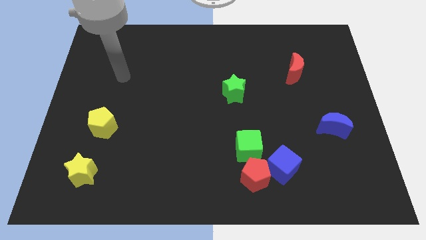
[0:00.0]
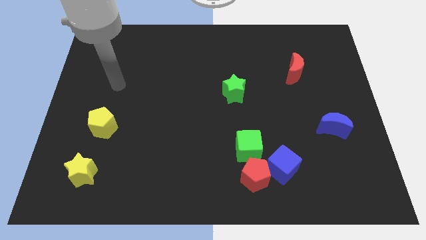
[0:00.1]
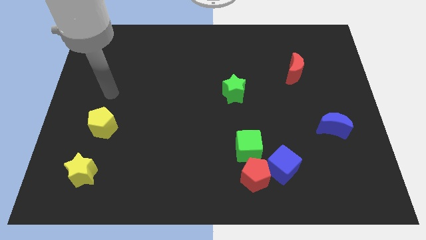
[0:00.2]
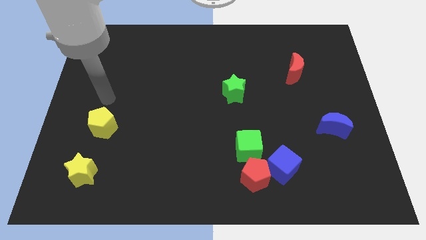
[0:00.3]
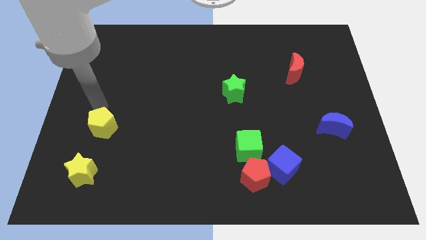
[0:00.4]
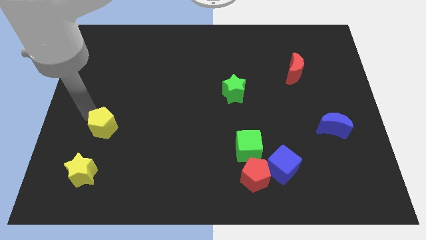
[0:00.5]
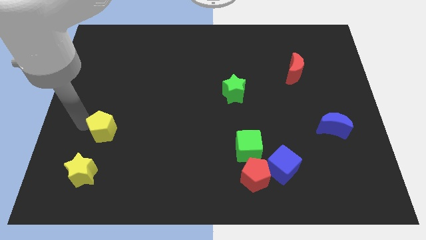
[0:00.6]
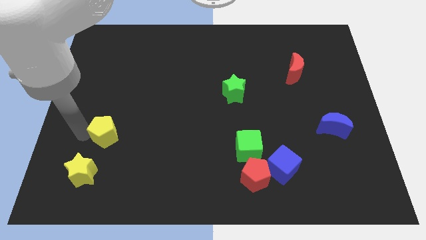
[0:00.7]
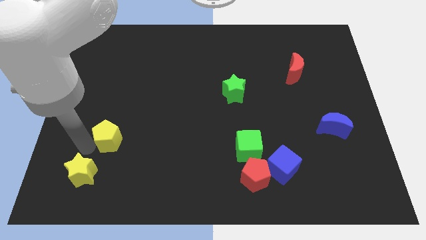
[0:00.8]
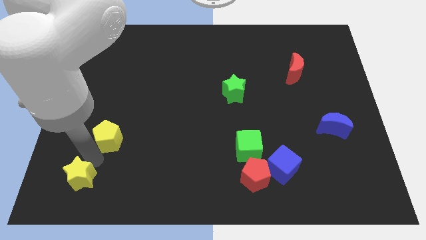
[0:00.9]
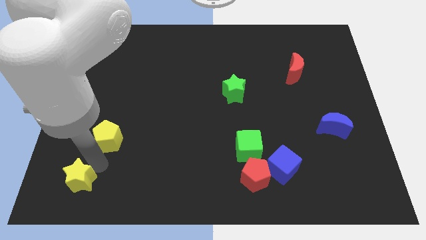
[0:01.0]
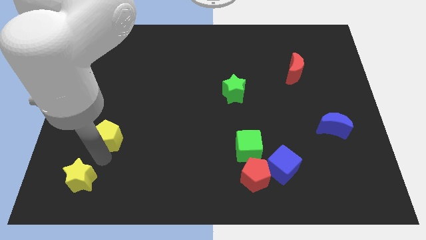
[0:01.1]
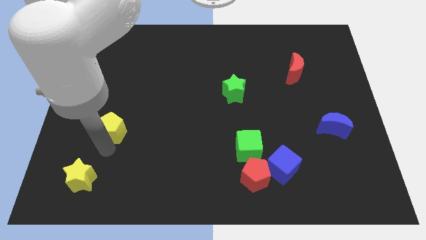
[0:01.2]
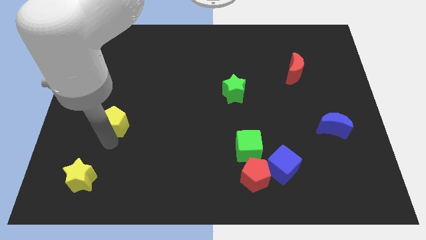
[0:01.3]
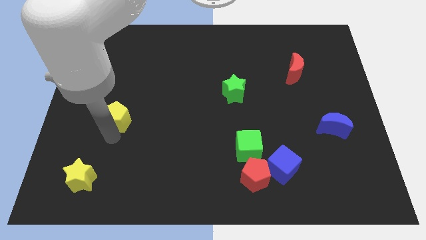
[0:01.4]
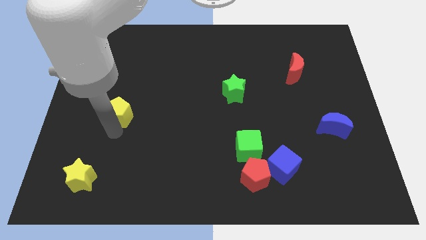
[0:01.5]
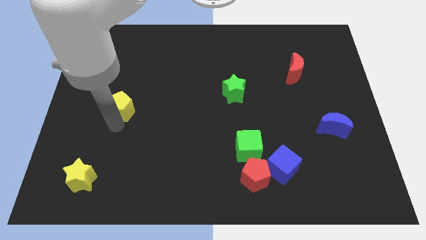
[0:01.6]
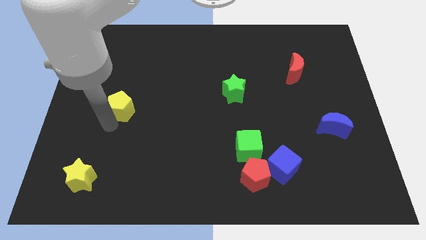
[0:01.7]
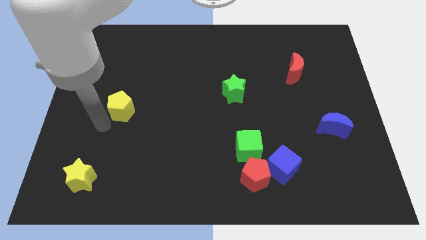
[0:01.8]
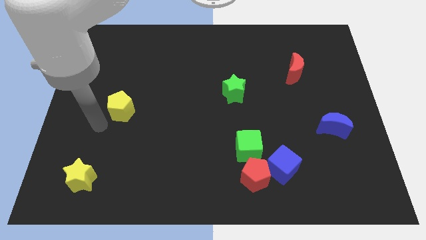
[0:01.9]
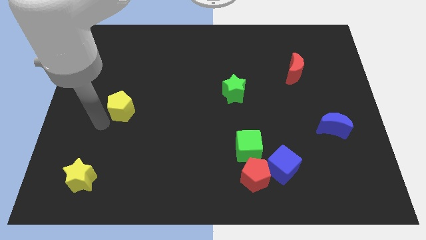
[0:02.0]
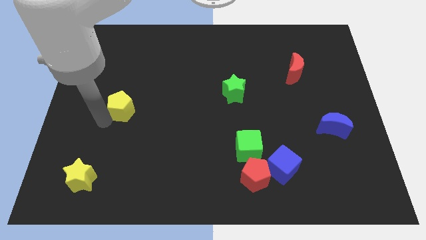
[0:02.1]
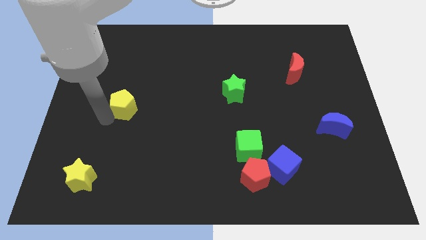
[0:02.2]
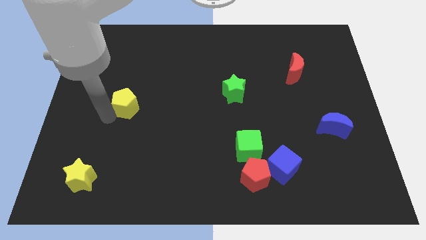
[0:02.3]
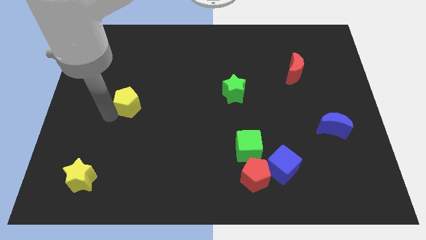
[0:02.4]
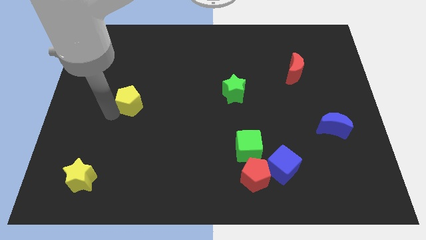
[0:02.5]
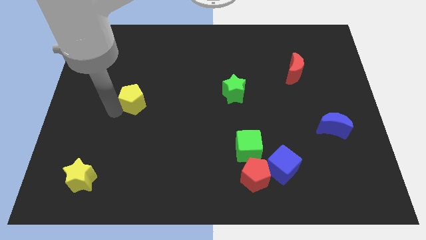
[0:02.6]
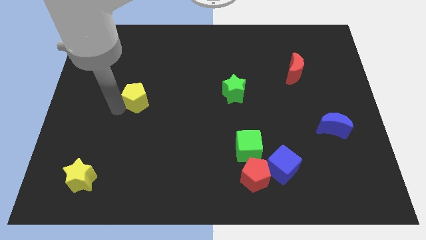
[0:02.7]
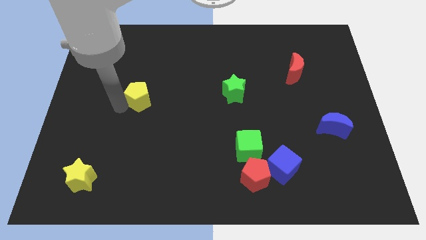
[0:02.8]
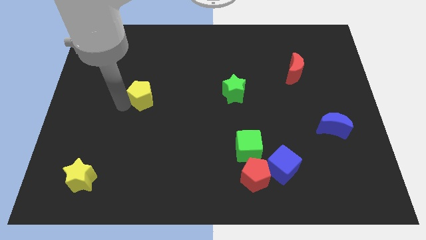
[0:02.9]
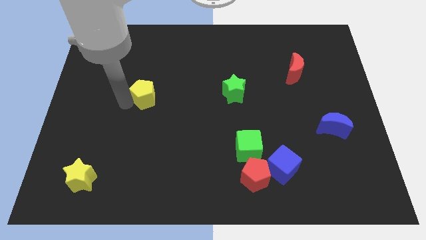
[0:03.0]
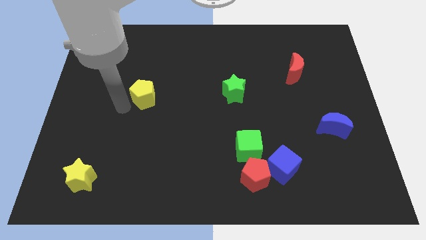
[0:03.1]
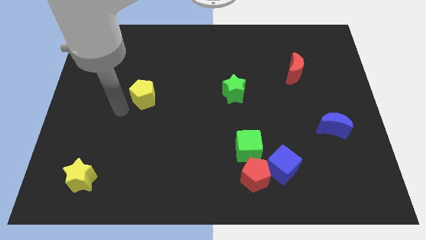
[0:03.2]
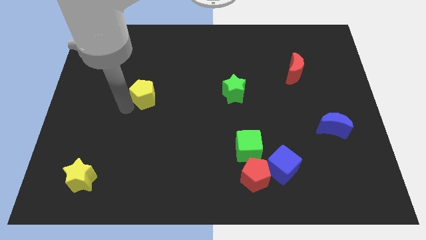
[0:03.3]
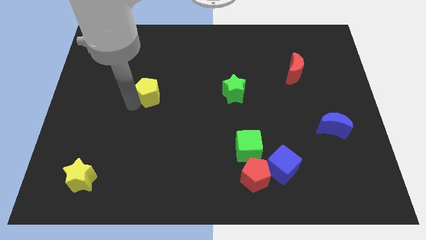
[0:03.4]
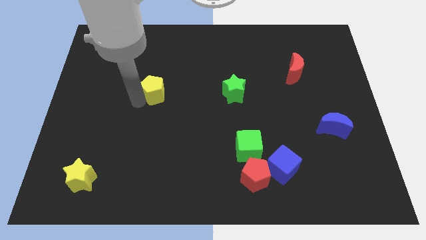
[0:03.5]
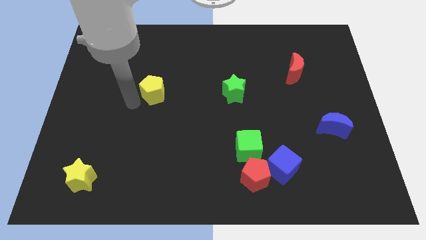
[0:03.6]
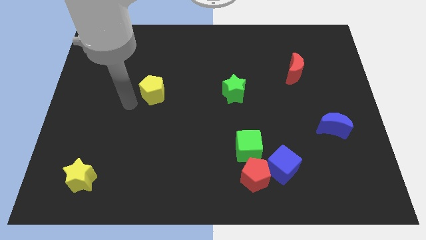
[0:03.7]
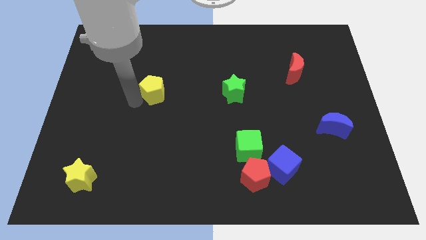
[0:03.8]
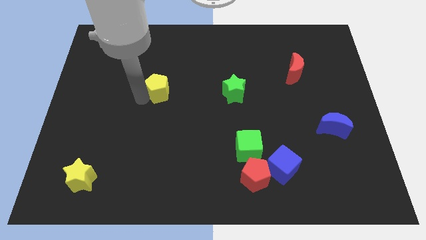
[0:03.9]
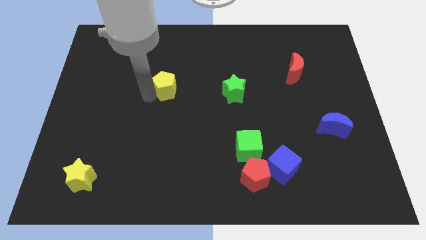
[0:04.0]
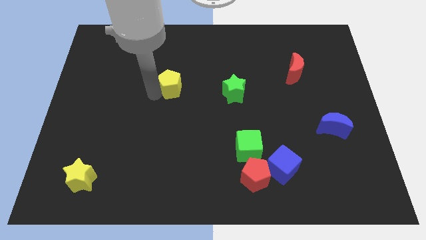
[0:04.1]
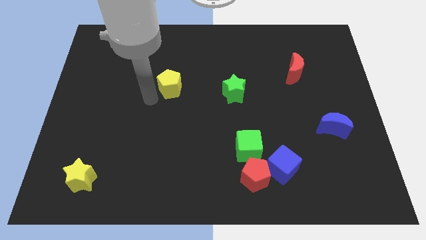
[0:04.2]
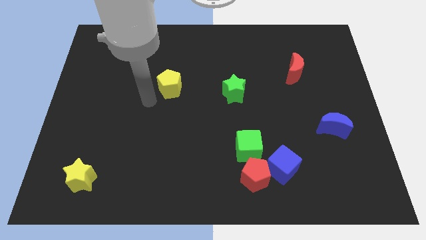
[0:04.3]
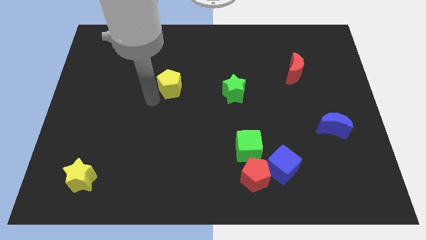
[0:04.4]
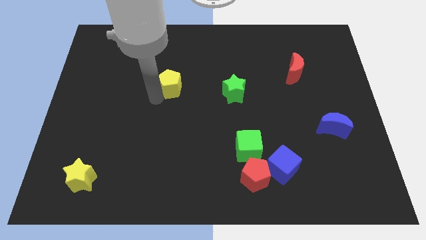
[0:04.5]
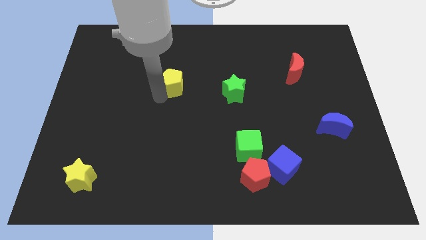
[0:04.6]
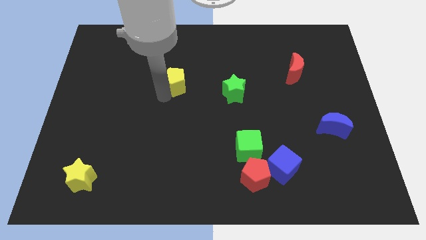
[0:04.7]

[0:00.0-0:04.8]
slide the yellow pentagon up and then right

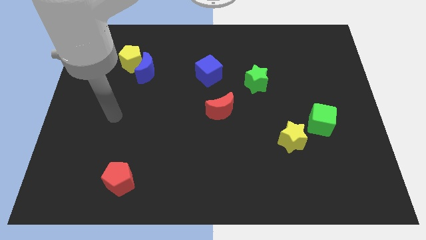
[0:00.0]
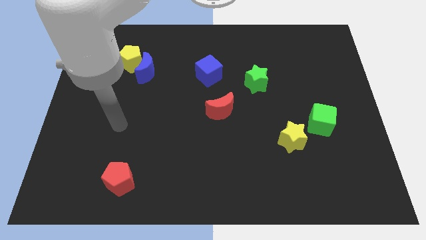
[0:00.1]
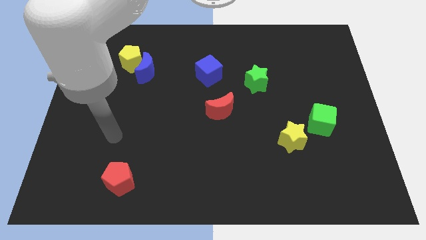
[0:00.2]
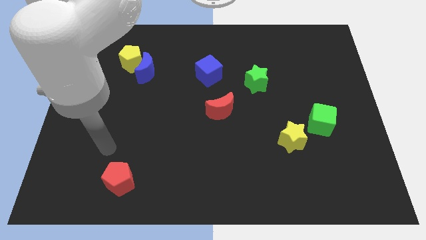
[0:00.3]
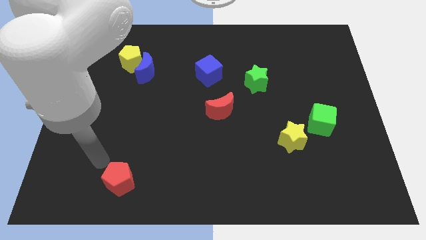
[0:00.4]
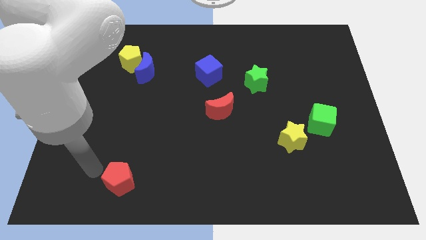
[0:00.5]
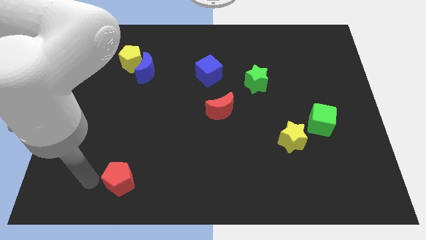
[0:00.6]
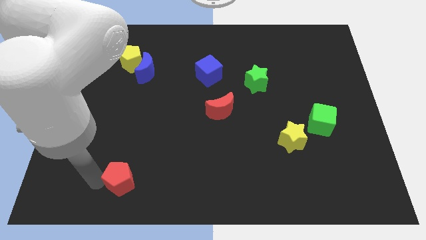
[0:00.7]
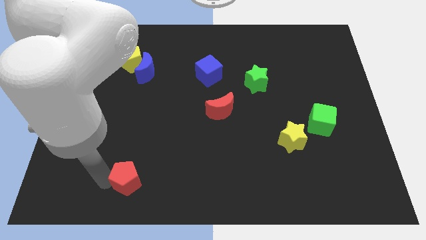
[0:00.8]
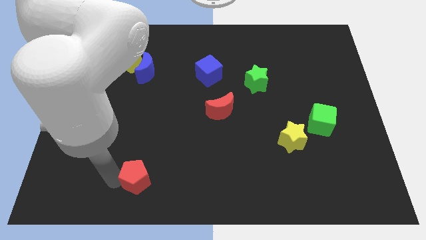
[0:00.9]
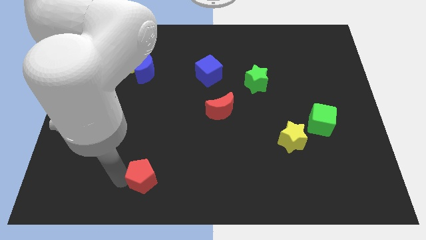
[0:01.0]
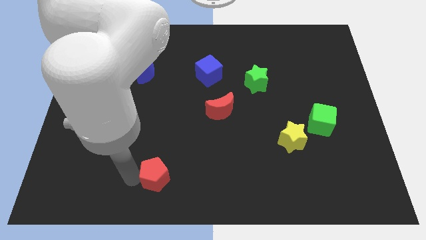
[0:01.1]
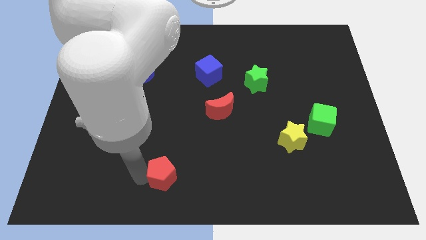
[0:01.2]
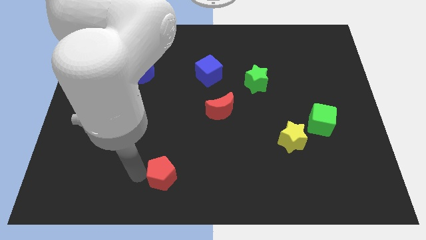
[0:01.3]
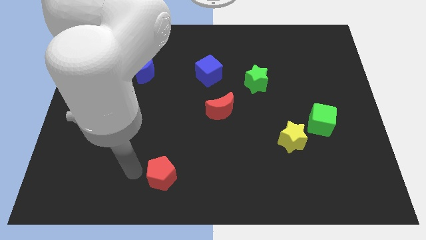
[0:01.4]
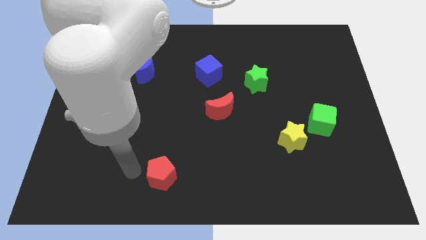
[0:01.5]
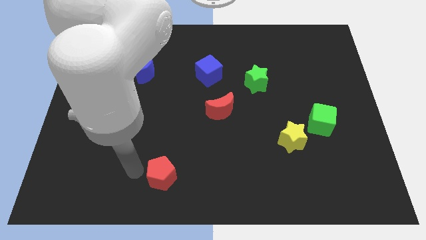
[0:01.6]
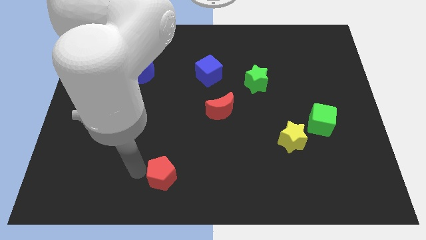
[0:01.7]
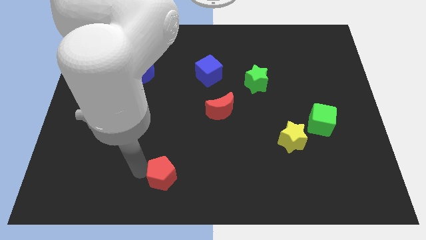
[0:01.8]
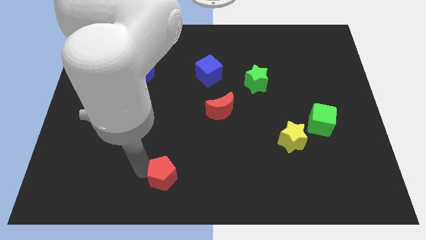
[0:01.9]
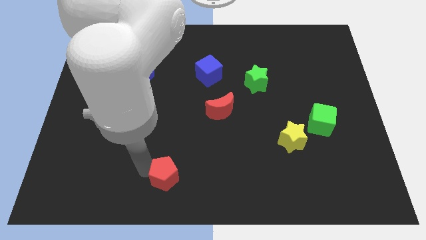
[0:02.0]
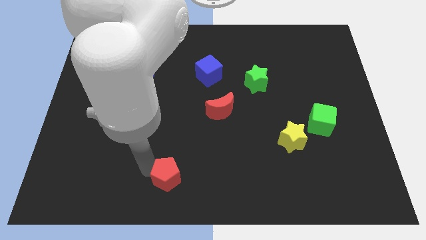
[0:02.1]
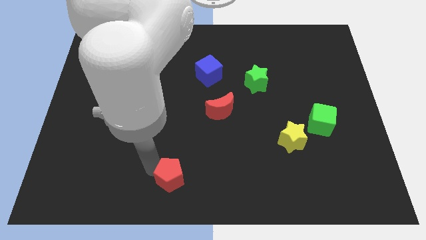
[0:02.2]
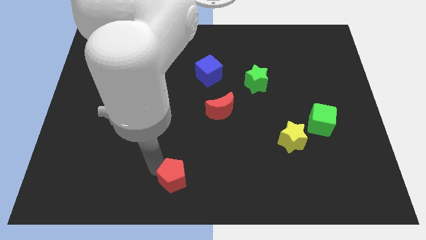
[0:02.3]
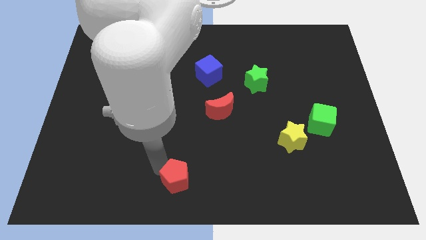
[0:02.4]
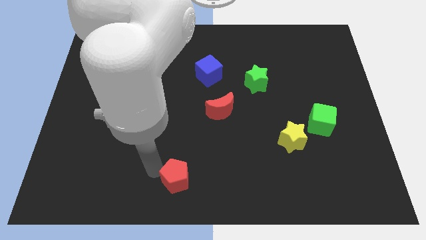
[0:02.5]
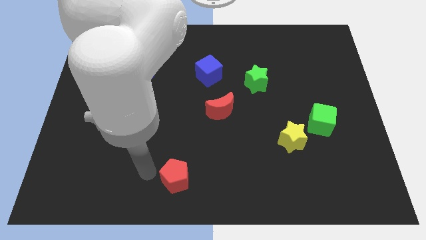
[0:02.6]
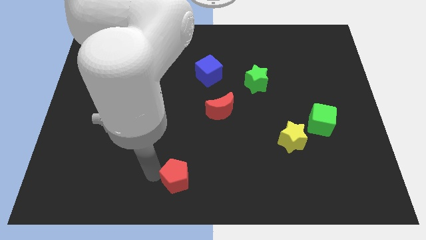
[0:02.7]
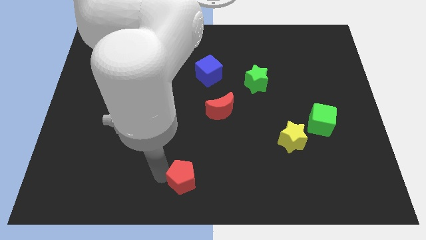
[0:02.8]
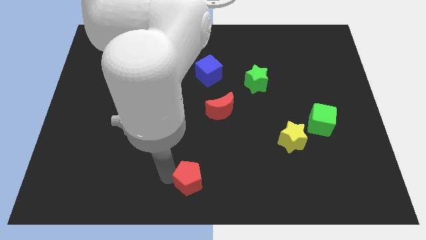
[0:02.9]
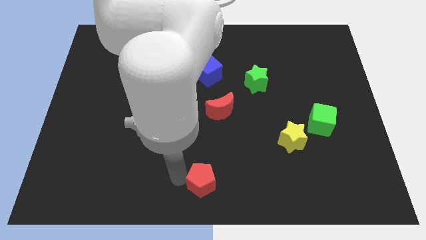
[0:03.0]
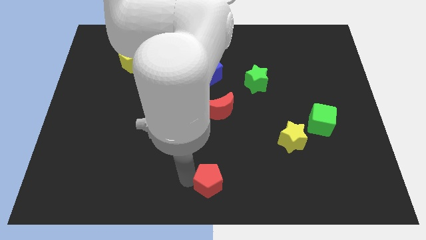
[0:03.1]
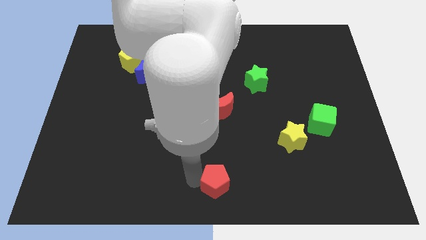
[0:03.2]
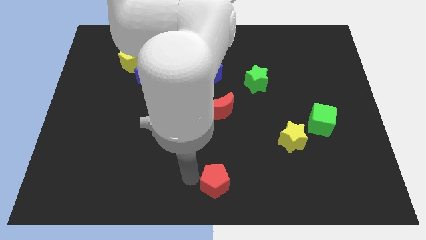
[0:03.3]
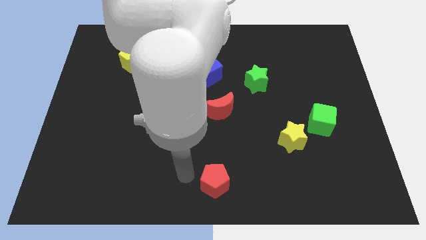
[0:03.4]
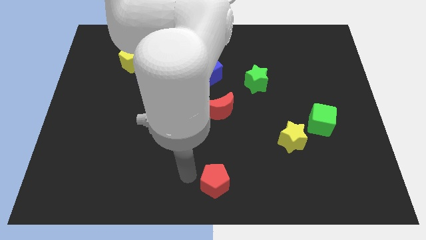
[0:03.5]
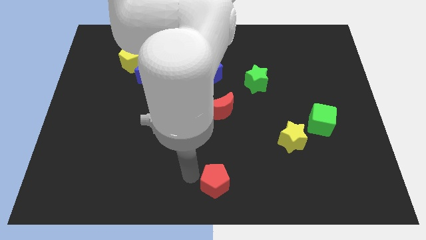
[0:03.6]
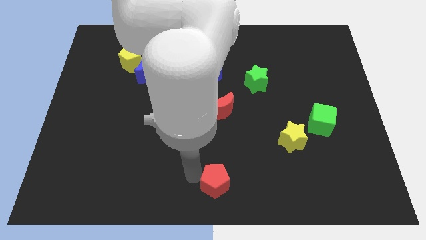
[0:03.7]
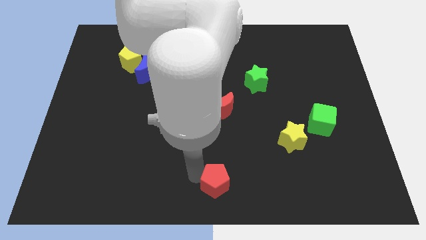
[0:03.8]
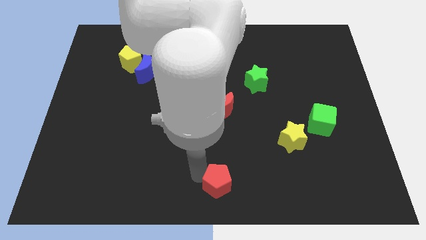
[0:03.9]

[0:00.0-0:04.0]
slide the red pentagon to the right
